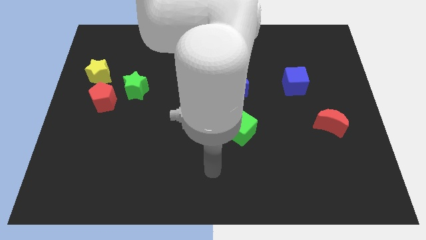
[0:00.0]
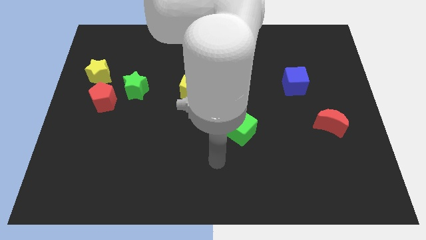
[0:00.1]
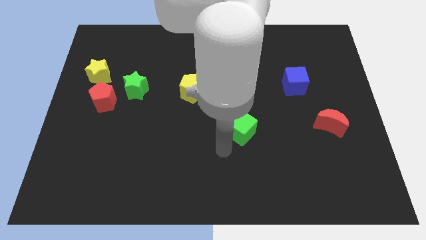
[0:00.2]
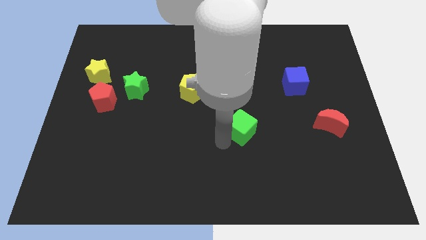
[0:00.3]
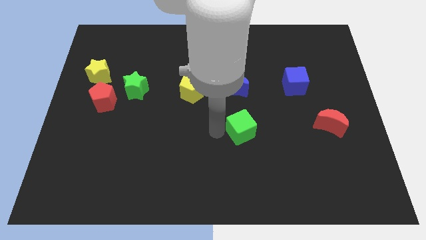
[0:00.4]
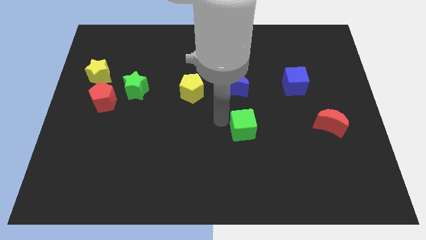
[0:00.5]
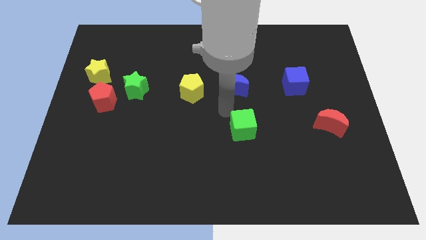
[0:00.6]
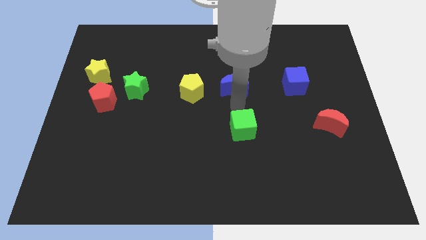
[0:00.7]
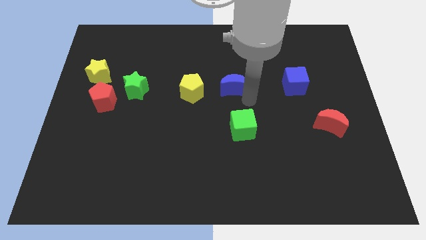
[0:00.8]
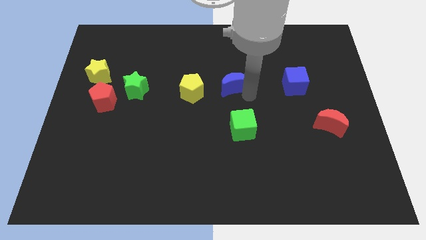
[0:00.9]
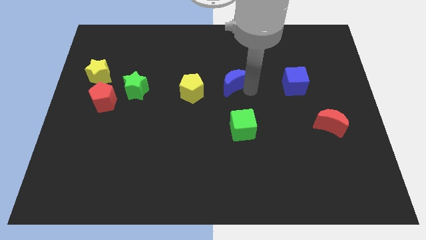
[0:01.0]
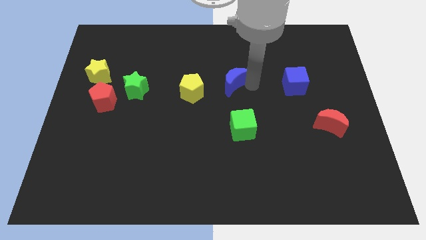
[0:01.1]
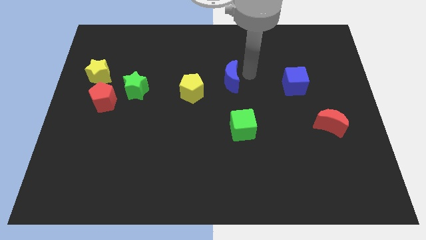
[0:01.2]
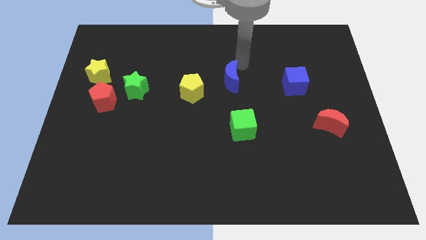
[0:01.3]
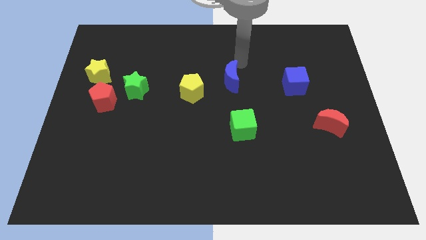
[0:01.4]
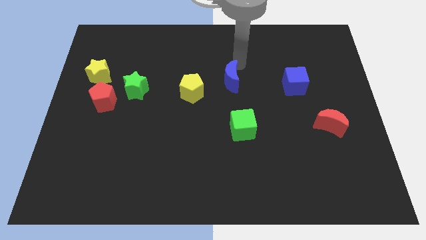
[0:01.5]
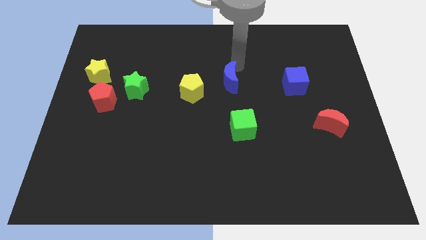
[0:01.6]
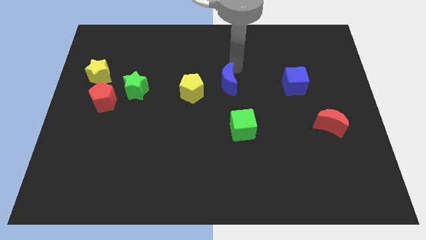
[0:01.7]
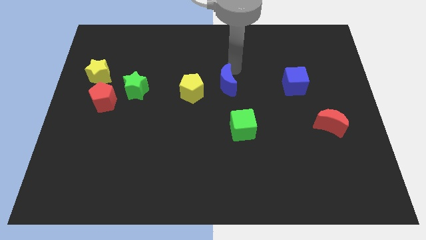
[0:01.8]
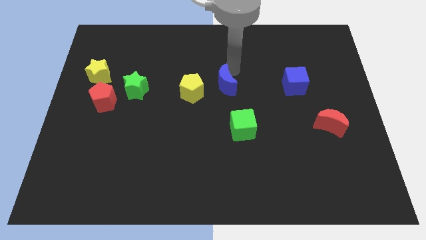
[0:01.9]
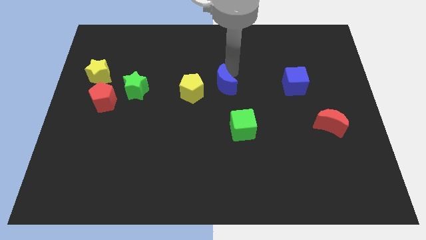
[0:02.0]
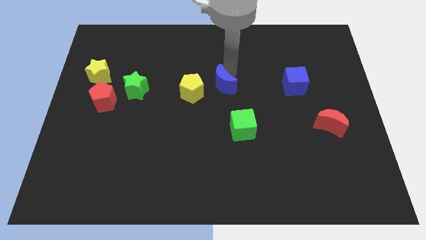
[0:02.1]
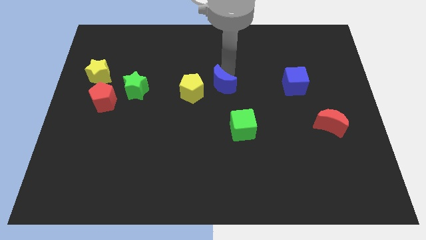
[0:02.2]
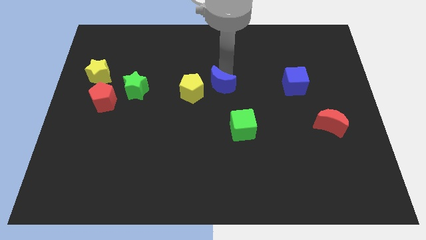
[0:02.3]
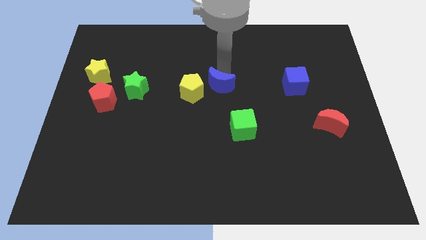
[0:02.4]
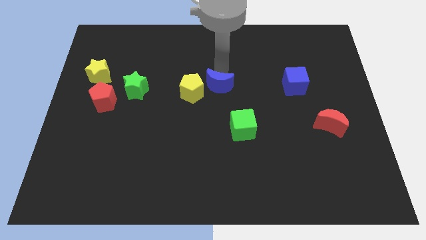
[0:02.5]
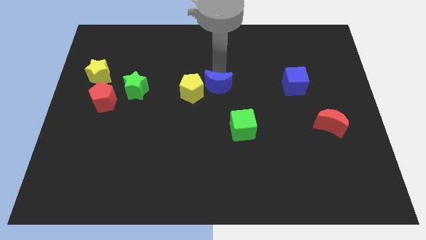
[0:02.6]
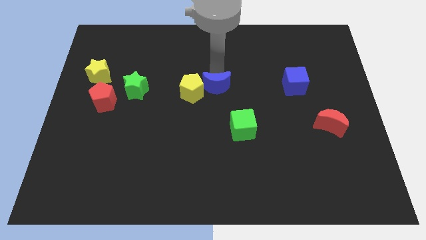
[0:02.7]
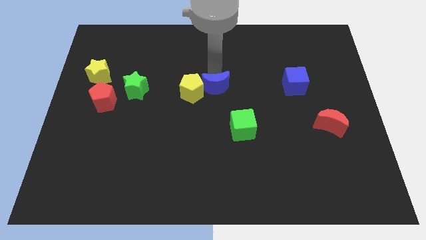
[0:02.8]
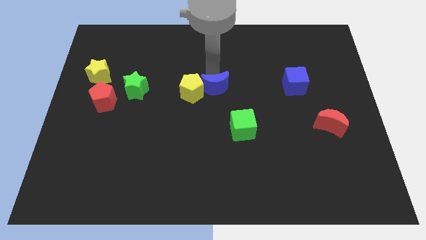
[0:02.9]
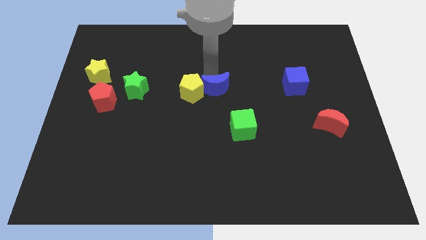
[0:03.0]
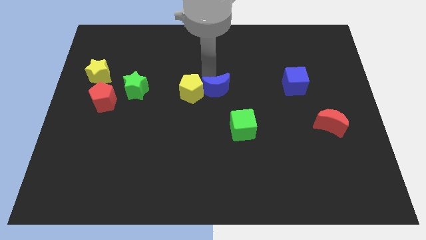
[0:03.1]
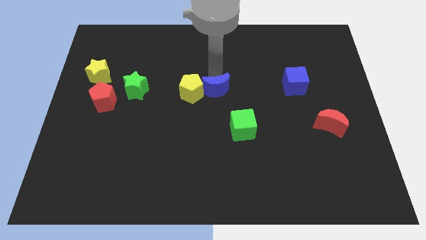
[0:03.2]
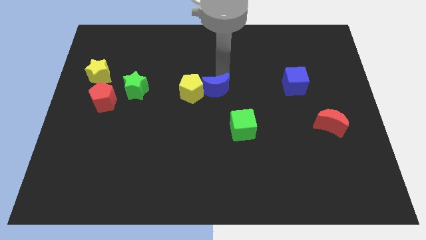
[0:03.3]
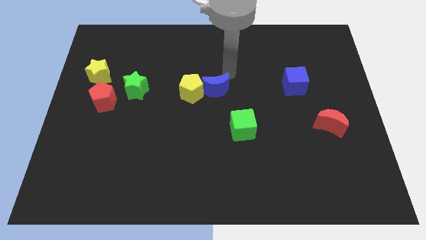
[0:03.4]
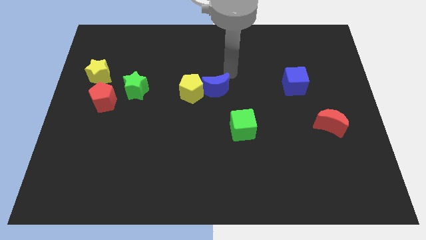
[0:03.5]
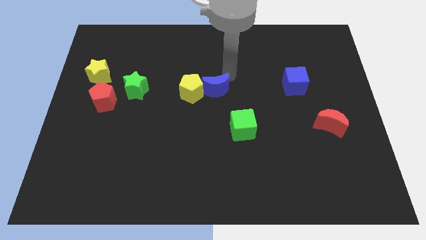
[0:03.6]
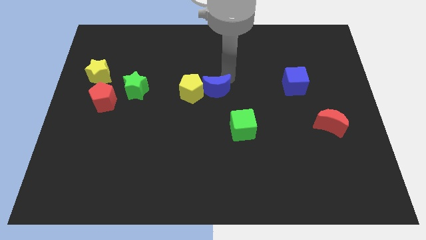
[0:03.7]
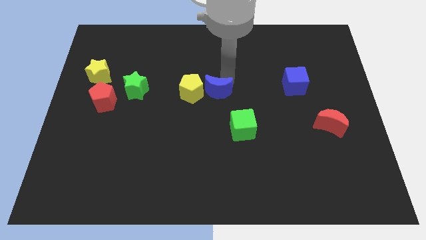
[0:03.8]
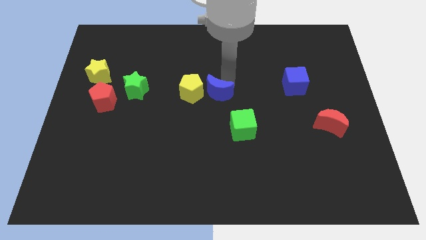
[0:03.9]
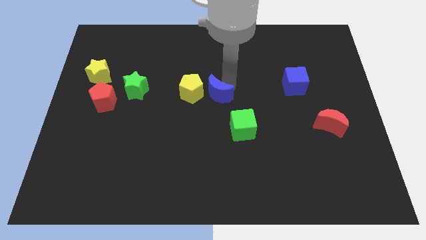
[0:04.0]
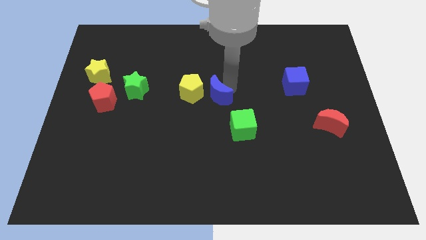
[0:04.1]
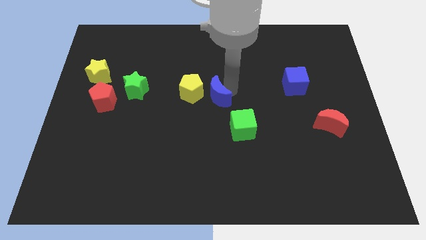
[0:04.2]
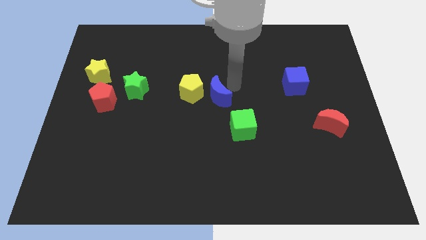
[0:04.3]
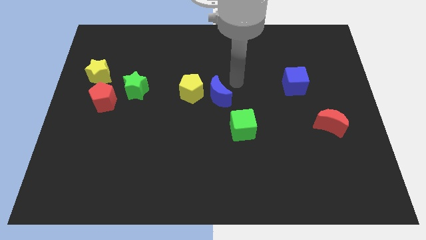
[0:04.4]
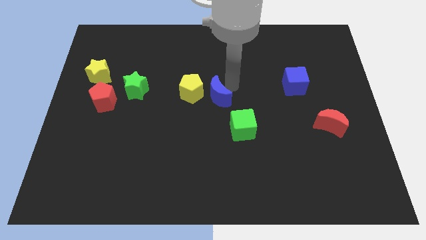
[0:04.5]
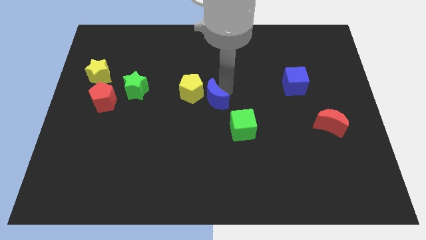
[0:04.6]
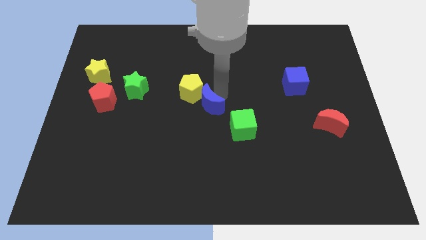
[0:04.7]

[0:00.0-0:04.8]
move the blue moon a little bit diagonally down and to the left

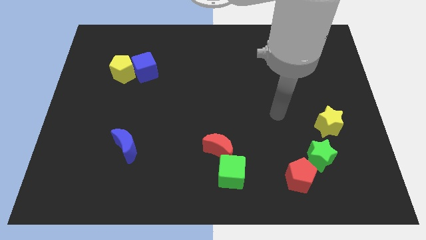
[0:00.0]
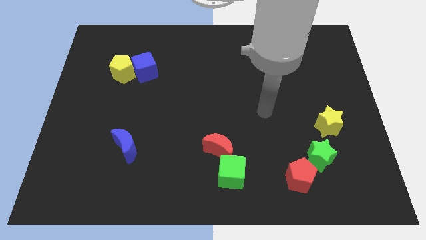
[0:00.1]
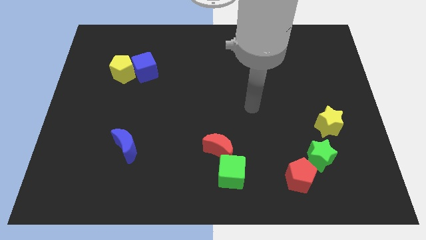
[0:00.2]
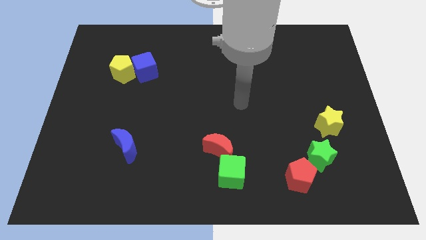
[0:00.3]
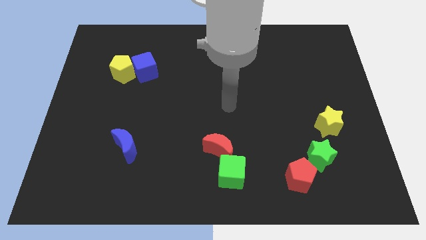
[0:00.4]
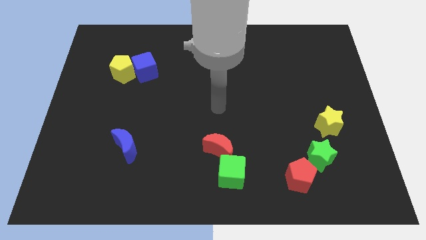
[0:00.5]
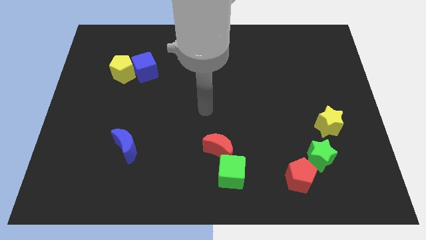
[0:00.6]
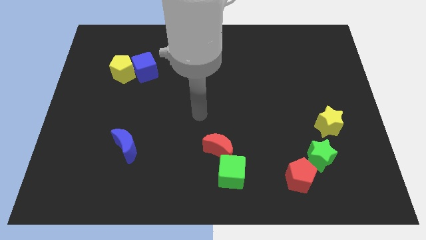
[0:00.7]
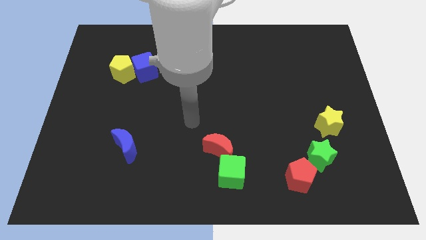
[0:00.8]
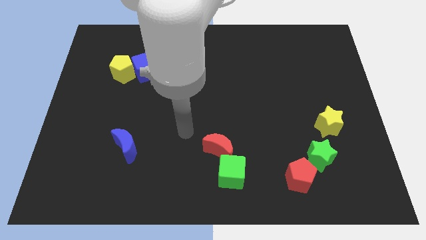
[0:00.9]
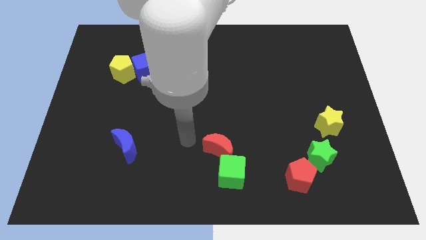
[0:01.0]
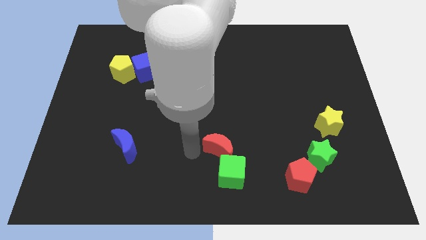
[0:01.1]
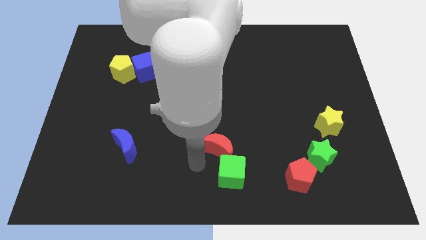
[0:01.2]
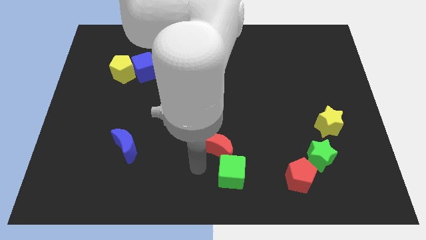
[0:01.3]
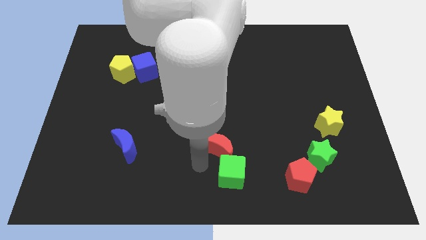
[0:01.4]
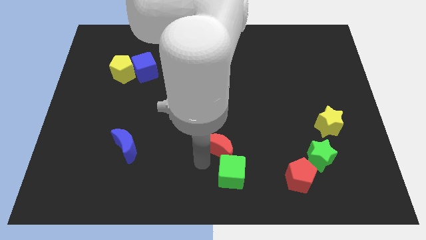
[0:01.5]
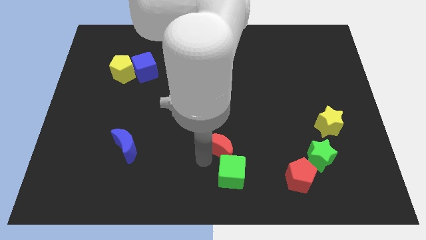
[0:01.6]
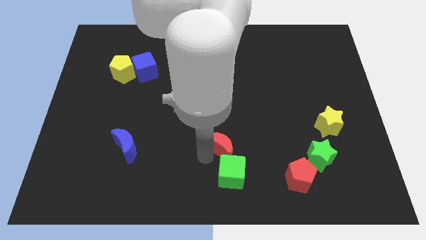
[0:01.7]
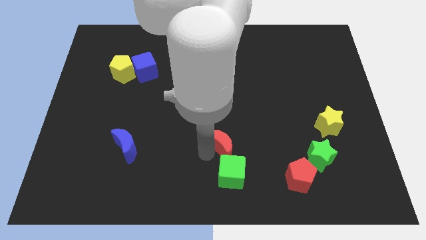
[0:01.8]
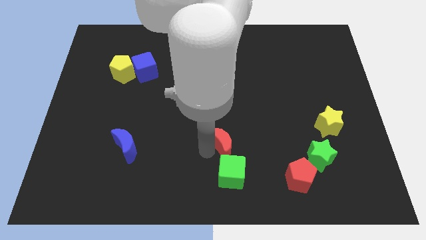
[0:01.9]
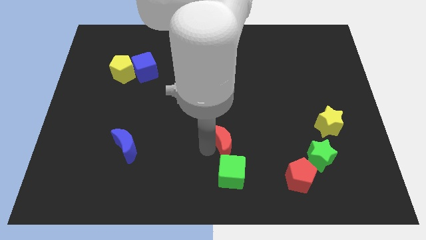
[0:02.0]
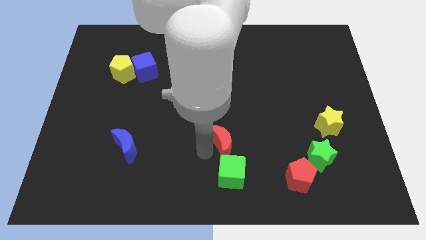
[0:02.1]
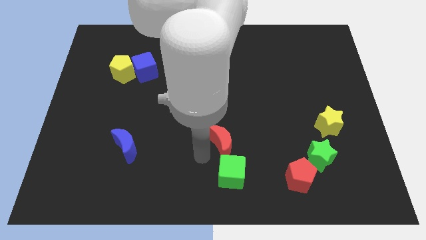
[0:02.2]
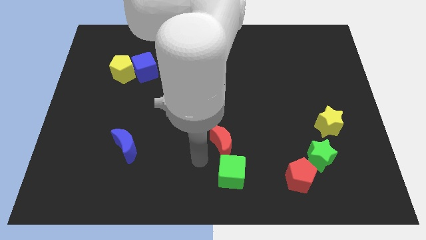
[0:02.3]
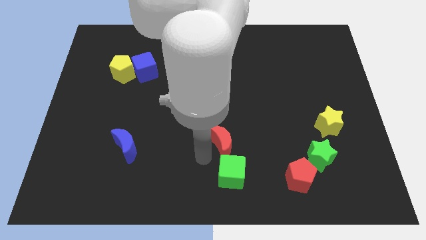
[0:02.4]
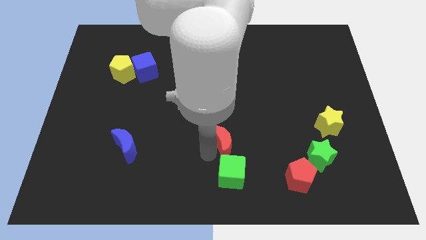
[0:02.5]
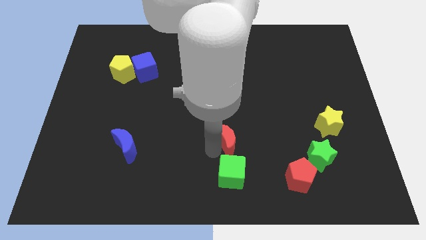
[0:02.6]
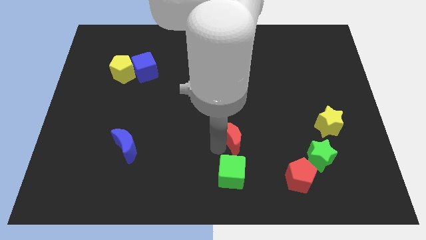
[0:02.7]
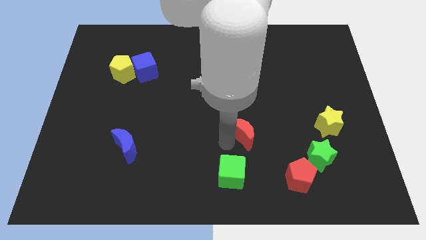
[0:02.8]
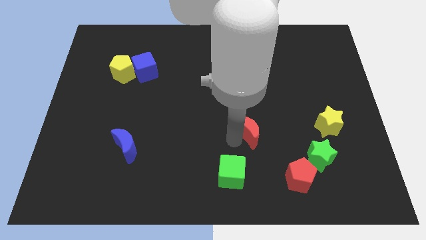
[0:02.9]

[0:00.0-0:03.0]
move the red moon upwards and right a little bit

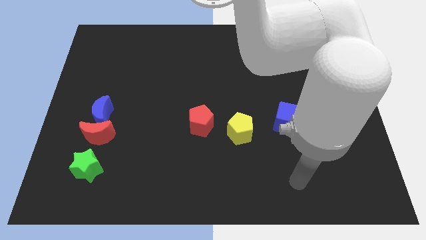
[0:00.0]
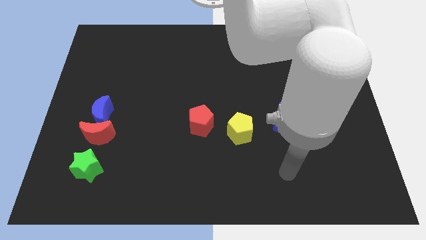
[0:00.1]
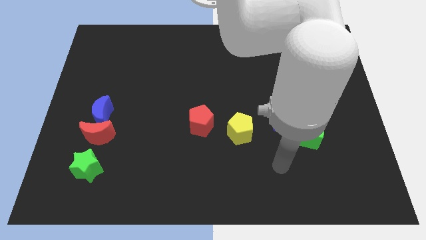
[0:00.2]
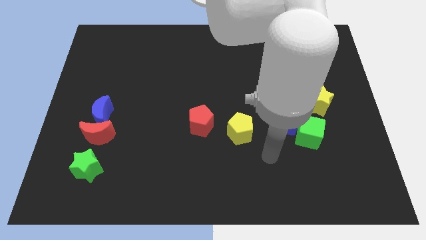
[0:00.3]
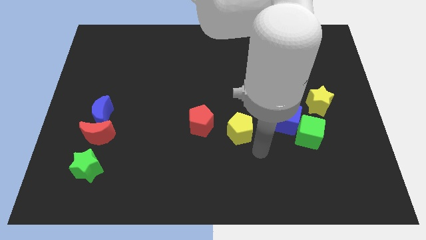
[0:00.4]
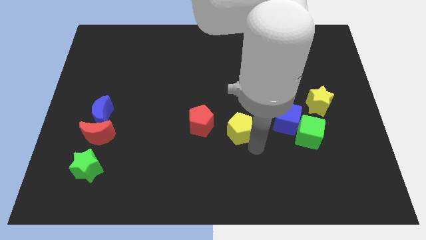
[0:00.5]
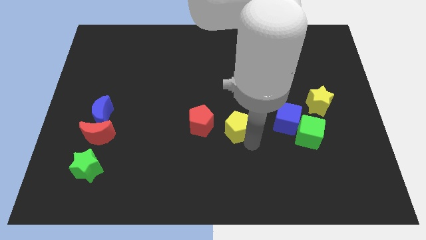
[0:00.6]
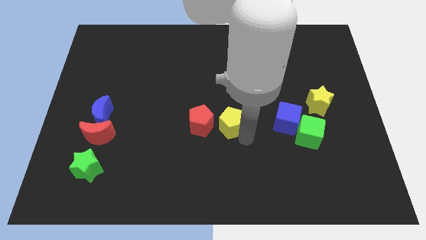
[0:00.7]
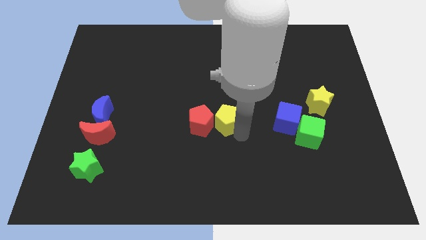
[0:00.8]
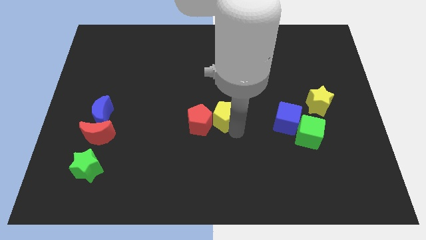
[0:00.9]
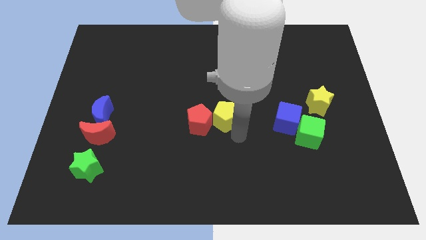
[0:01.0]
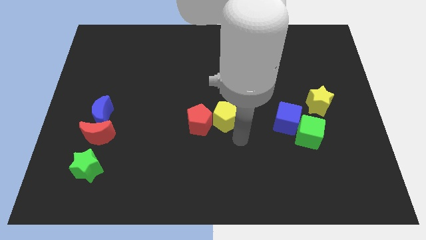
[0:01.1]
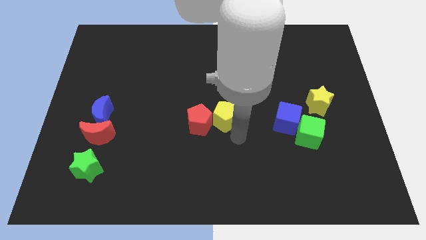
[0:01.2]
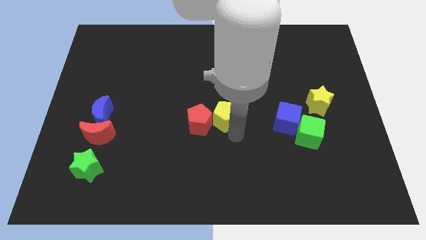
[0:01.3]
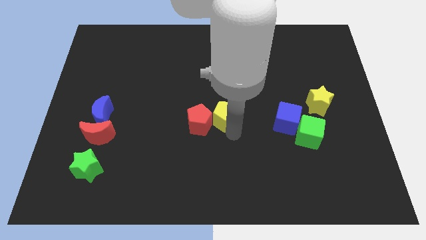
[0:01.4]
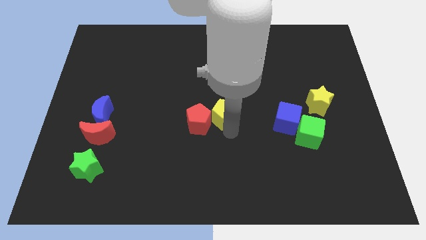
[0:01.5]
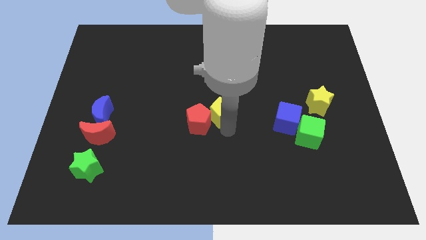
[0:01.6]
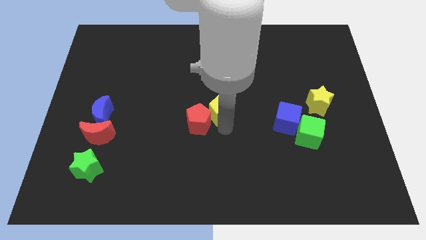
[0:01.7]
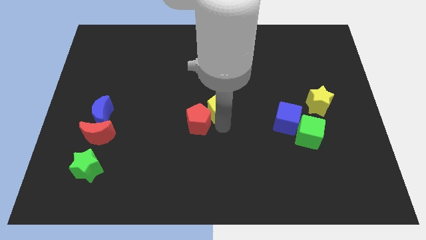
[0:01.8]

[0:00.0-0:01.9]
slide the yellow pentagon a little bit upwards and left
